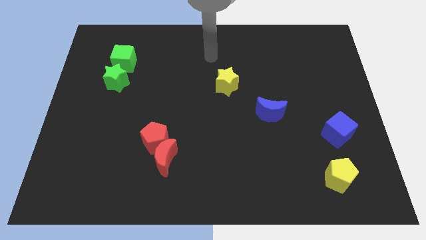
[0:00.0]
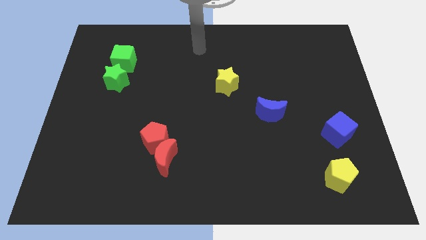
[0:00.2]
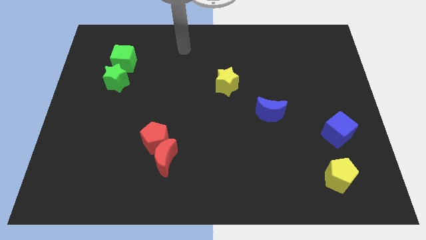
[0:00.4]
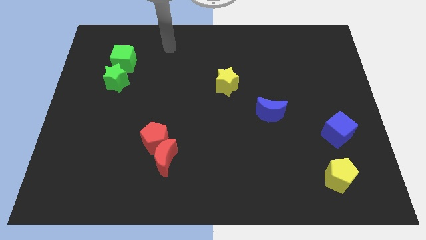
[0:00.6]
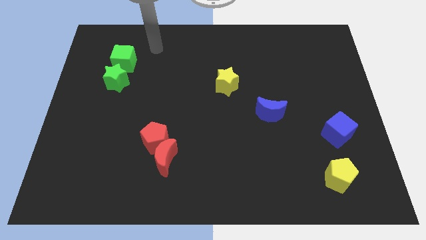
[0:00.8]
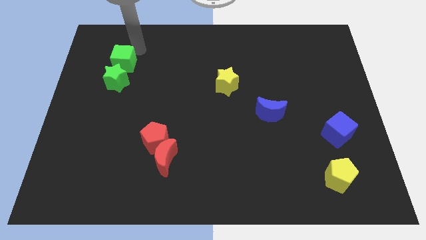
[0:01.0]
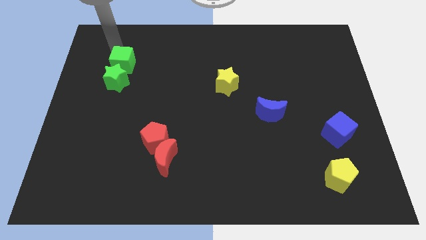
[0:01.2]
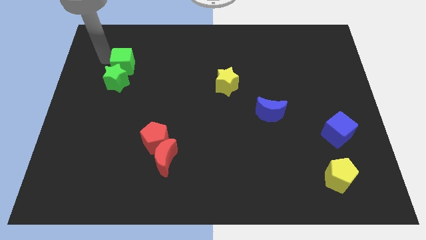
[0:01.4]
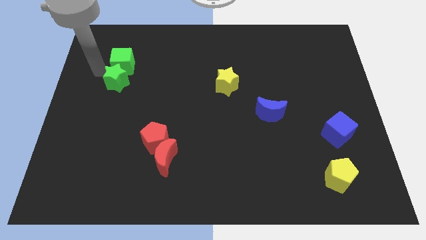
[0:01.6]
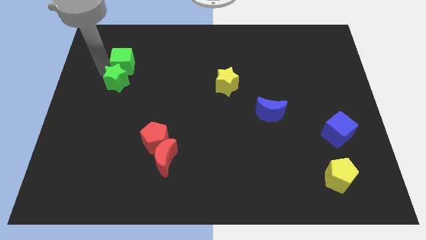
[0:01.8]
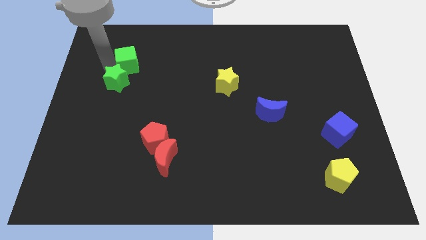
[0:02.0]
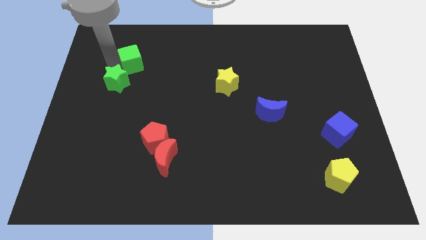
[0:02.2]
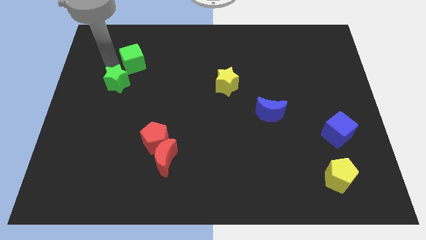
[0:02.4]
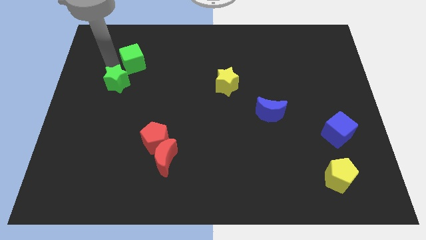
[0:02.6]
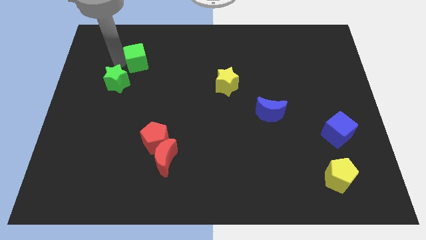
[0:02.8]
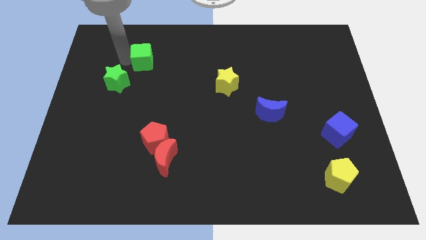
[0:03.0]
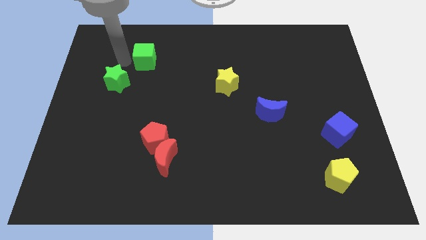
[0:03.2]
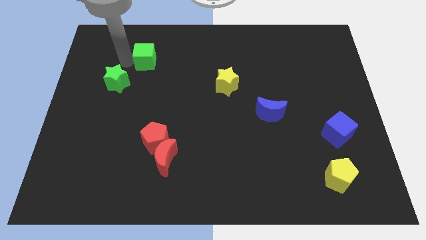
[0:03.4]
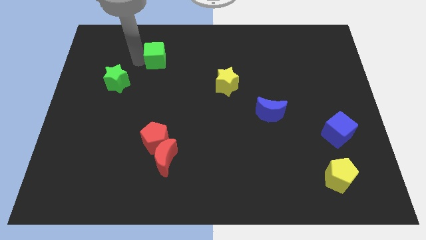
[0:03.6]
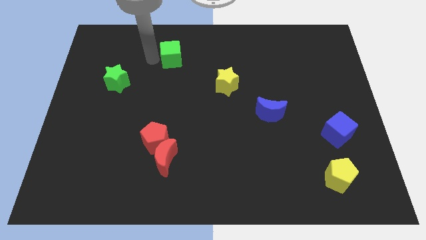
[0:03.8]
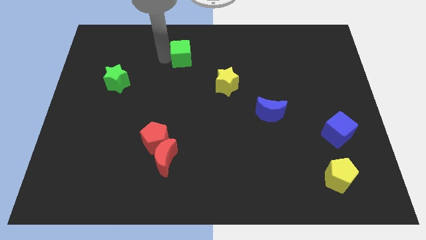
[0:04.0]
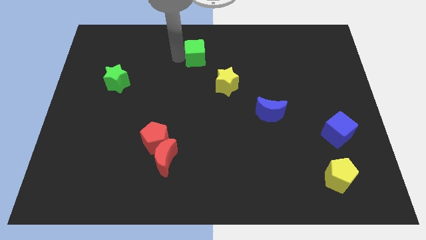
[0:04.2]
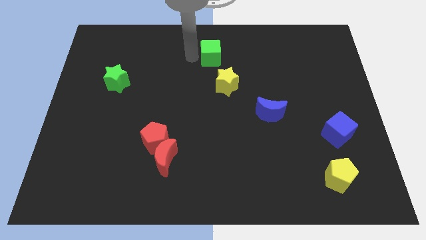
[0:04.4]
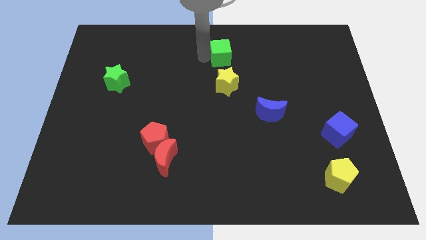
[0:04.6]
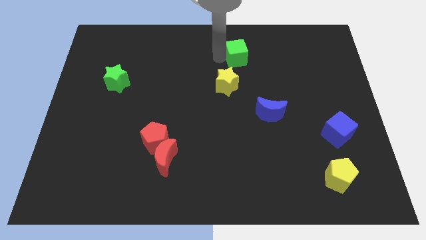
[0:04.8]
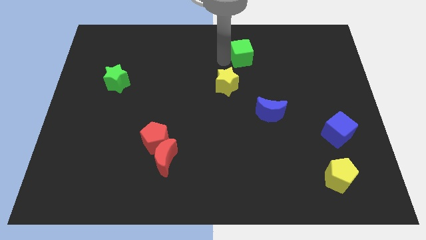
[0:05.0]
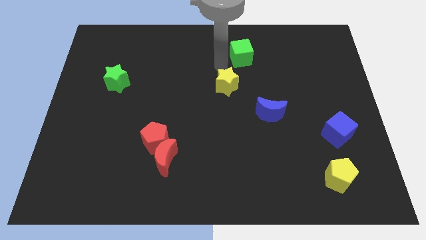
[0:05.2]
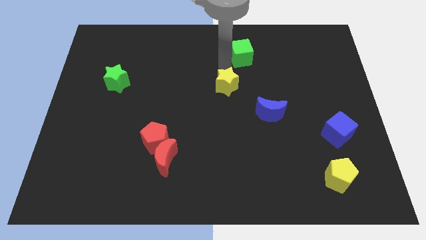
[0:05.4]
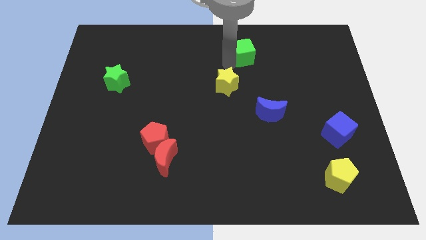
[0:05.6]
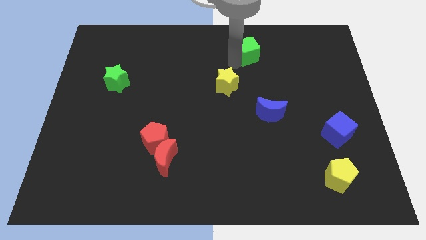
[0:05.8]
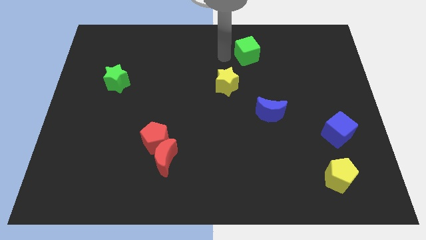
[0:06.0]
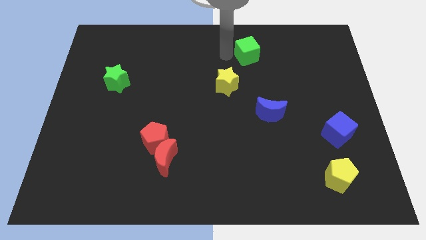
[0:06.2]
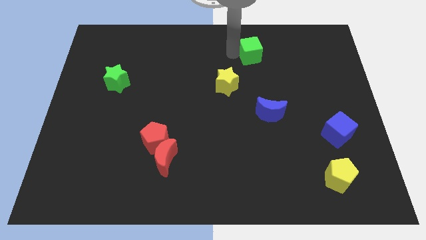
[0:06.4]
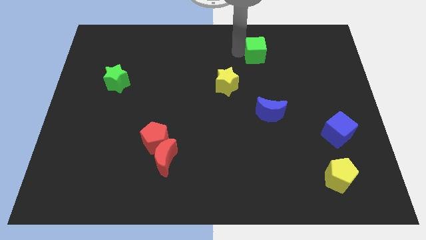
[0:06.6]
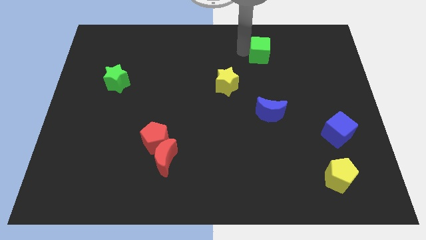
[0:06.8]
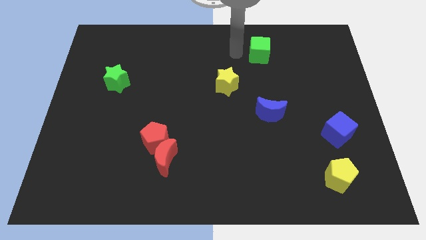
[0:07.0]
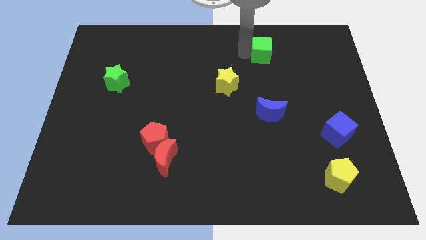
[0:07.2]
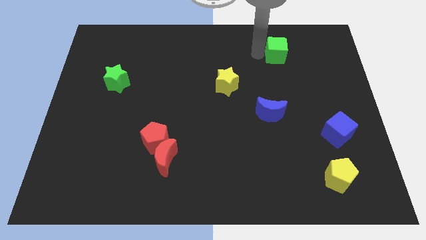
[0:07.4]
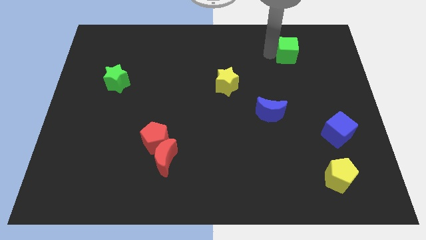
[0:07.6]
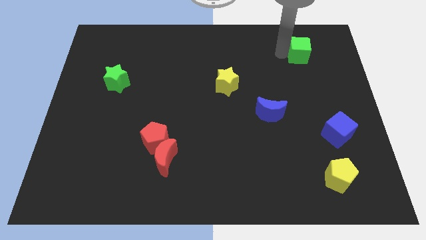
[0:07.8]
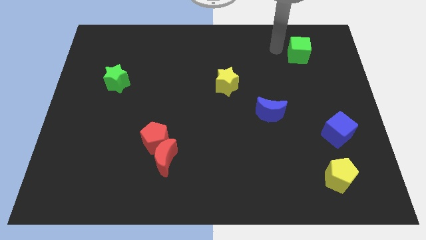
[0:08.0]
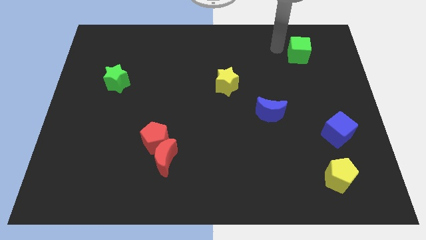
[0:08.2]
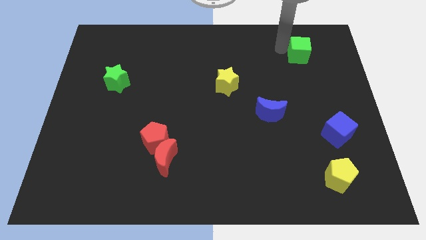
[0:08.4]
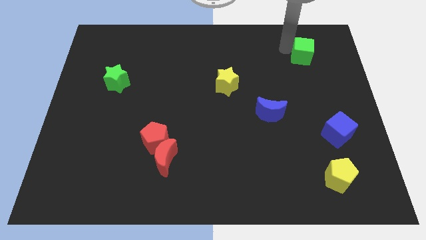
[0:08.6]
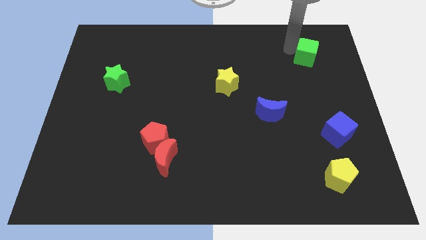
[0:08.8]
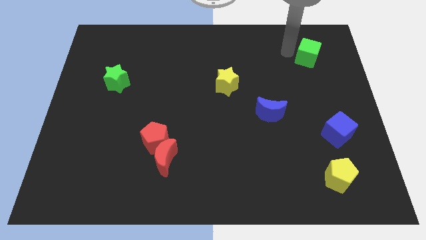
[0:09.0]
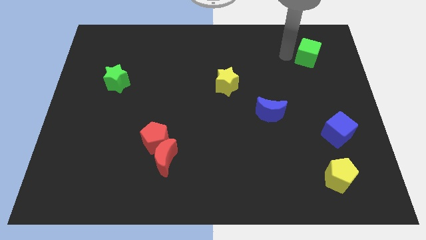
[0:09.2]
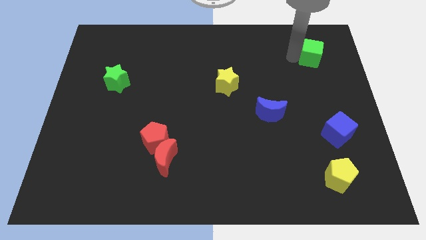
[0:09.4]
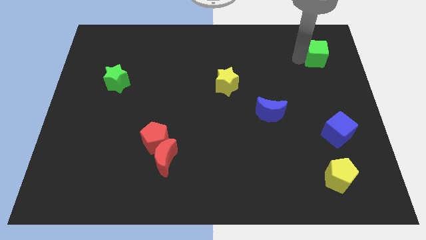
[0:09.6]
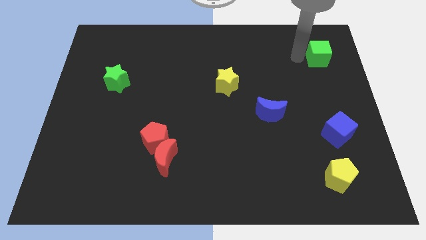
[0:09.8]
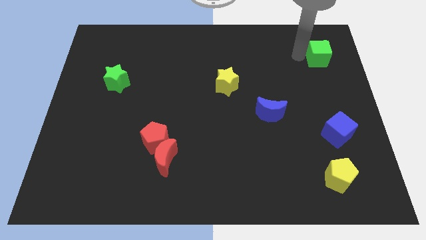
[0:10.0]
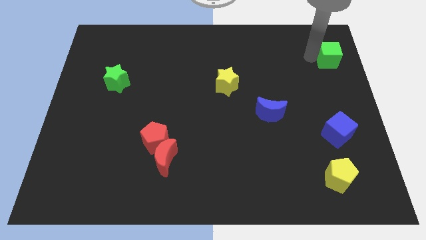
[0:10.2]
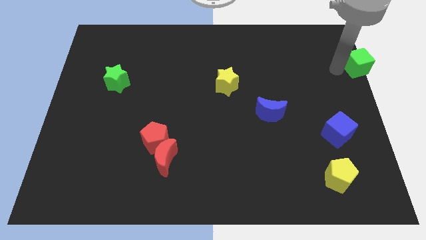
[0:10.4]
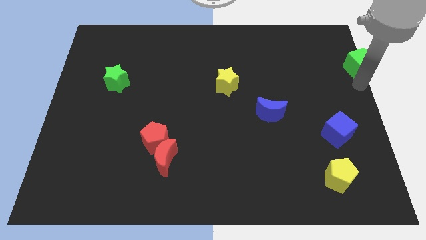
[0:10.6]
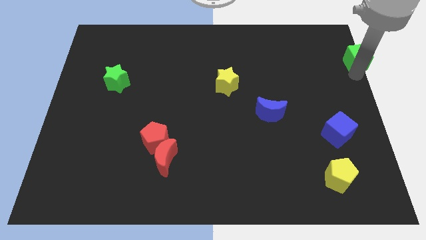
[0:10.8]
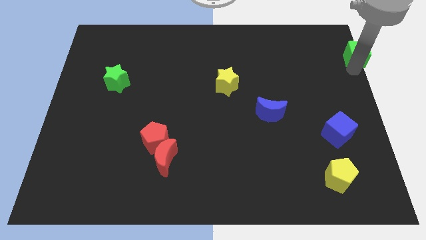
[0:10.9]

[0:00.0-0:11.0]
put the green cube to the top right

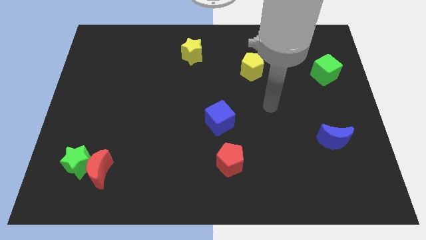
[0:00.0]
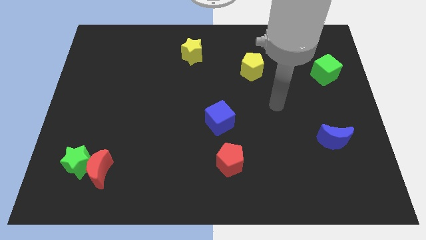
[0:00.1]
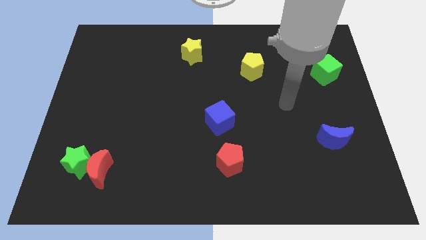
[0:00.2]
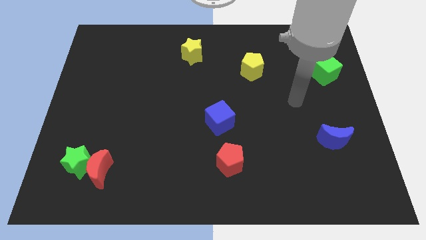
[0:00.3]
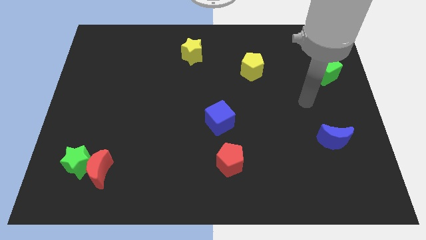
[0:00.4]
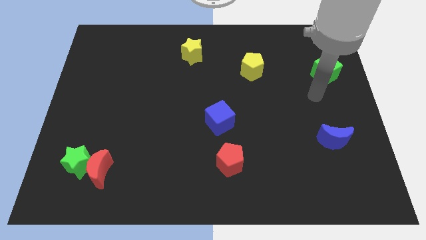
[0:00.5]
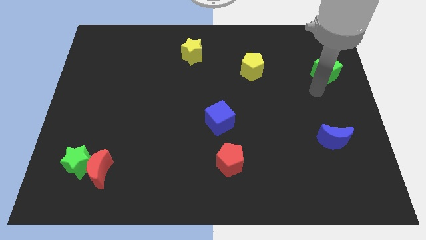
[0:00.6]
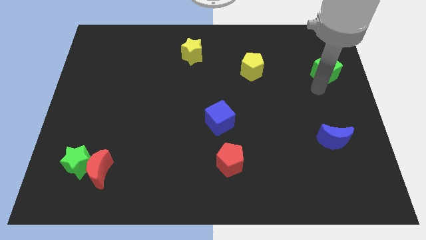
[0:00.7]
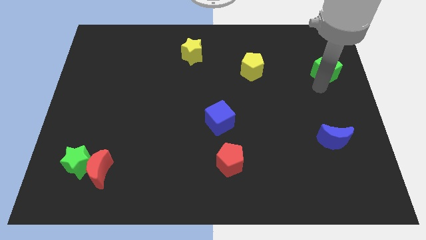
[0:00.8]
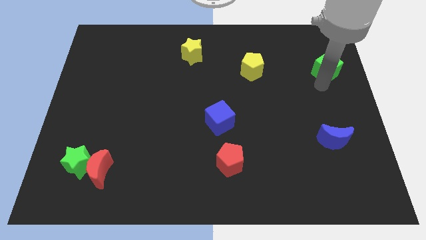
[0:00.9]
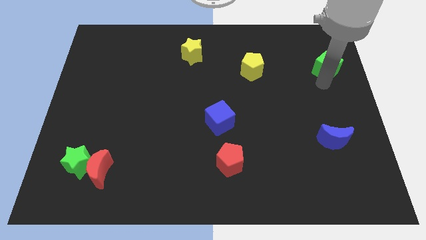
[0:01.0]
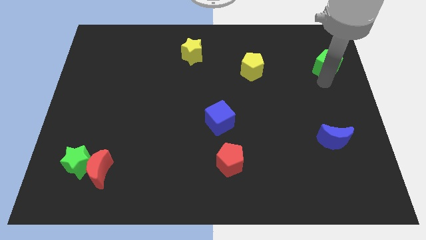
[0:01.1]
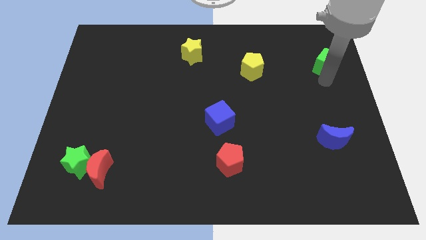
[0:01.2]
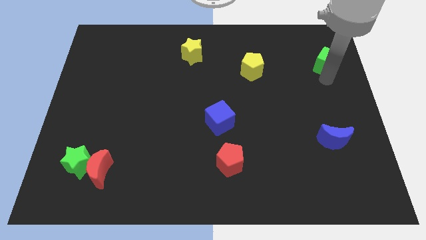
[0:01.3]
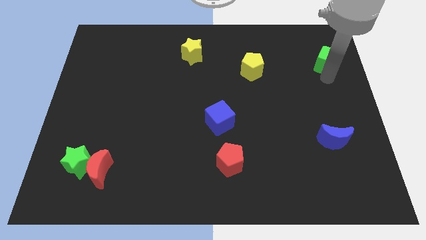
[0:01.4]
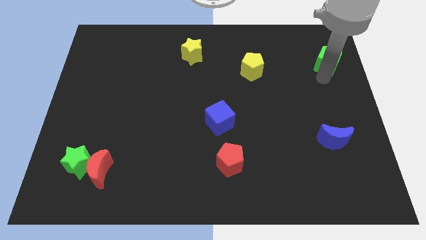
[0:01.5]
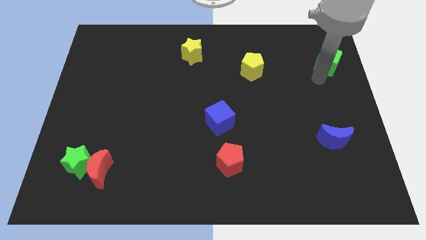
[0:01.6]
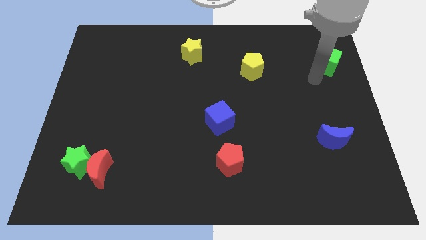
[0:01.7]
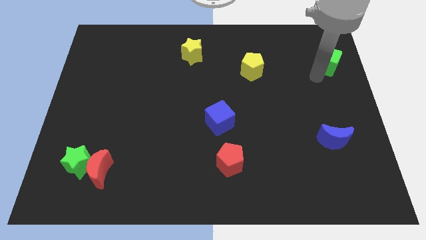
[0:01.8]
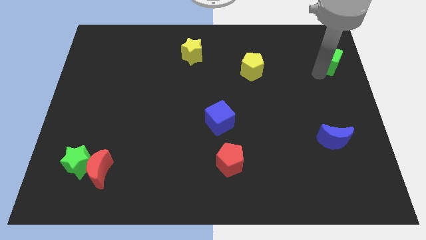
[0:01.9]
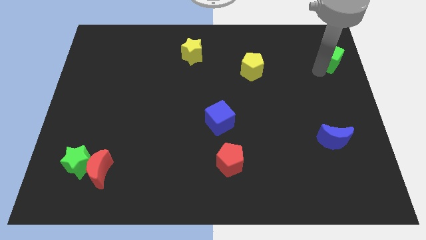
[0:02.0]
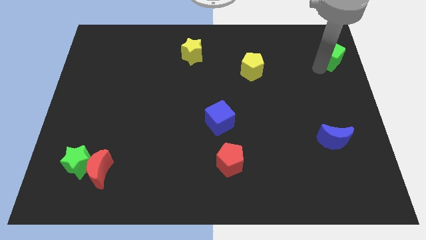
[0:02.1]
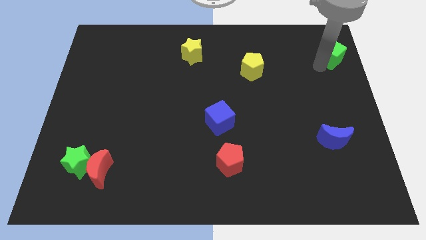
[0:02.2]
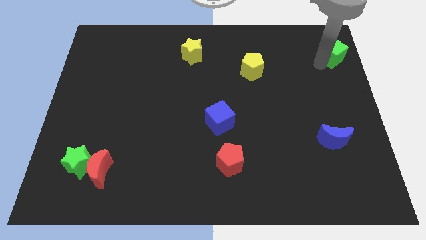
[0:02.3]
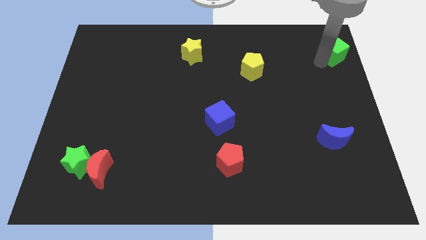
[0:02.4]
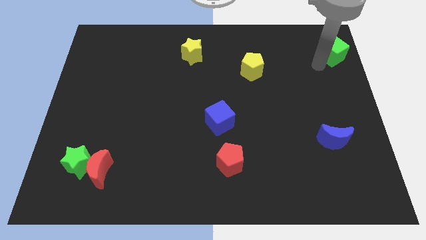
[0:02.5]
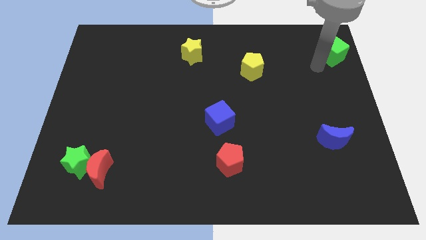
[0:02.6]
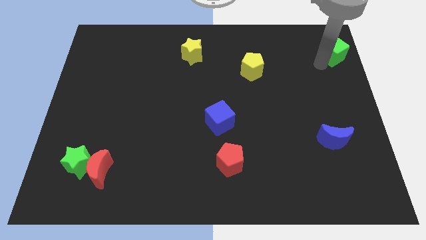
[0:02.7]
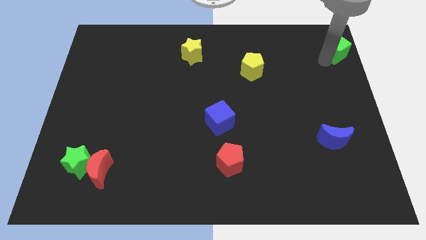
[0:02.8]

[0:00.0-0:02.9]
slide the green cube to the top right of the board
